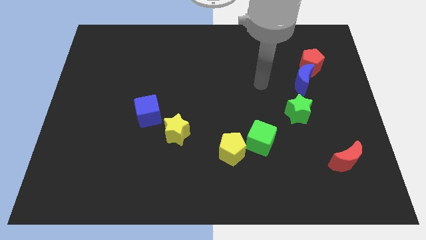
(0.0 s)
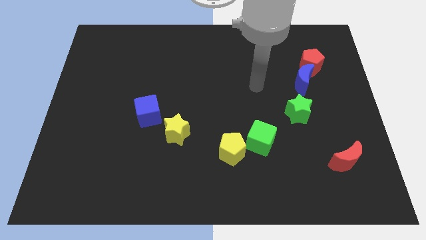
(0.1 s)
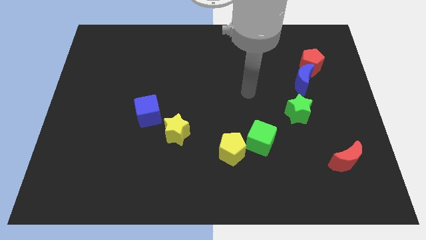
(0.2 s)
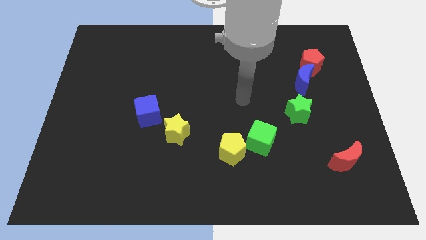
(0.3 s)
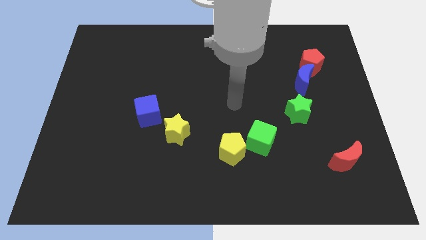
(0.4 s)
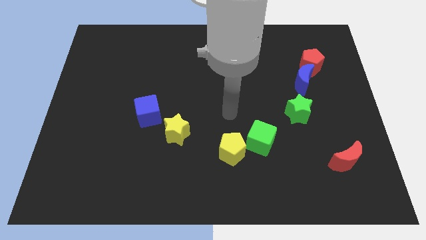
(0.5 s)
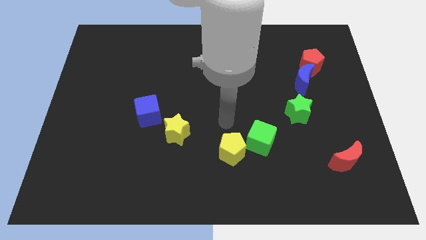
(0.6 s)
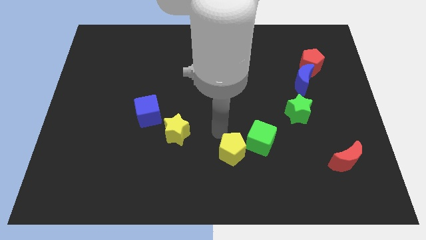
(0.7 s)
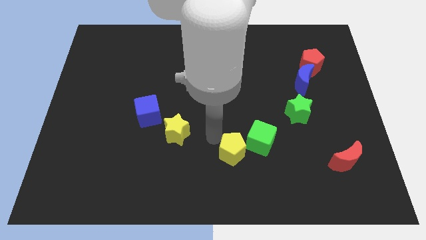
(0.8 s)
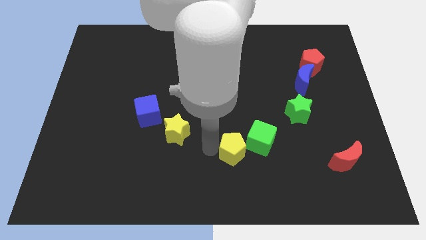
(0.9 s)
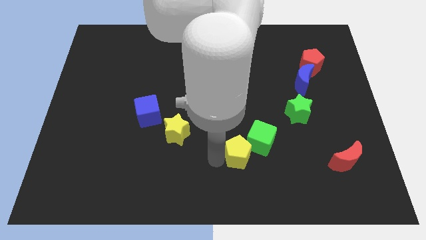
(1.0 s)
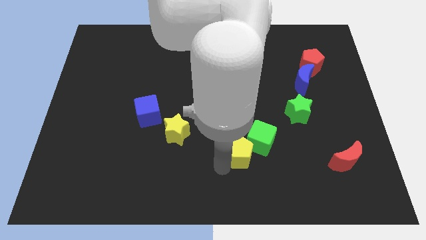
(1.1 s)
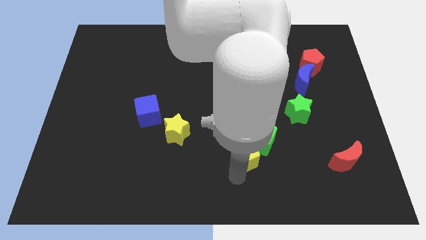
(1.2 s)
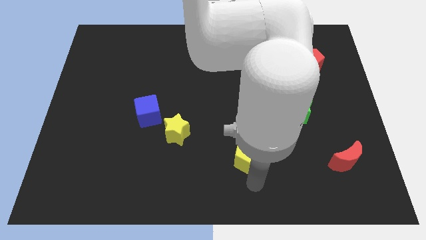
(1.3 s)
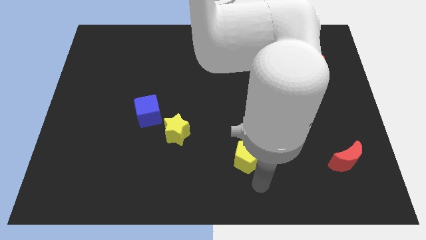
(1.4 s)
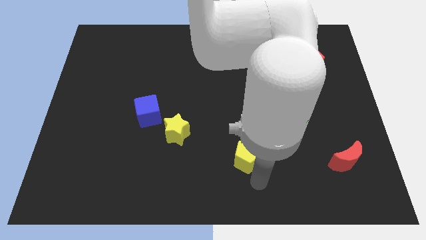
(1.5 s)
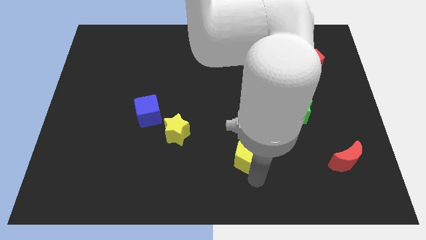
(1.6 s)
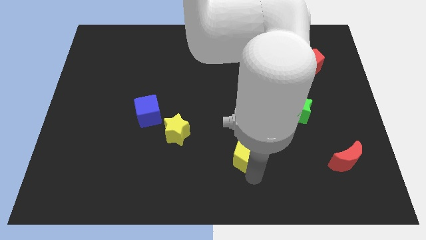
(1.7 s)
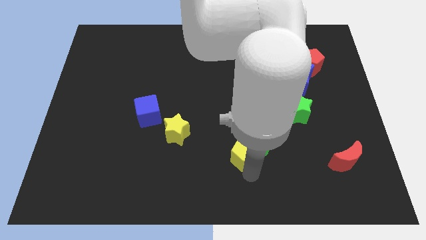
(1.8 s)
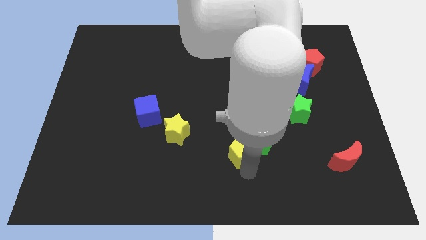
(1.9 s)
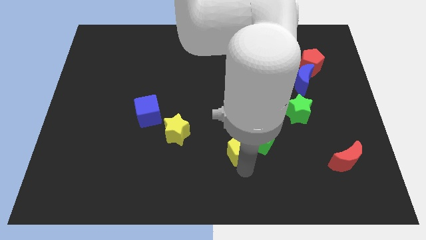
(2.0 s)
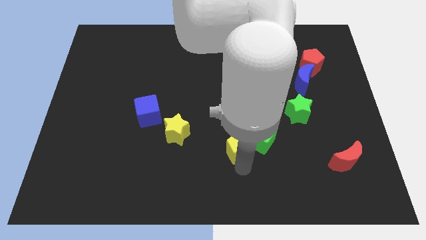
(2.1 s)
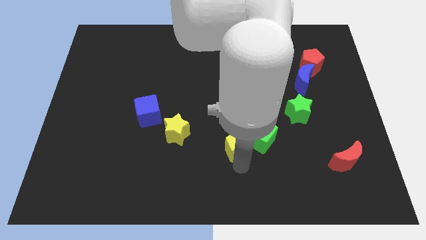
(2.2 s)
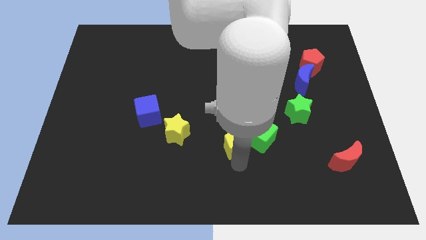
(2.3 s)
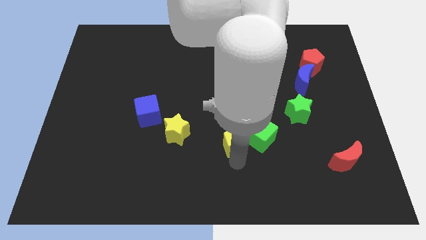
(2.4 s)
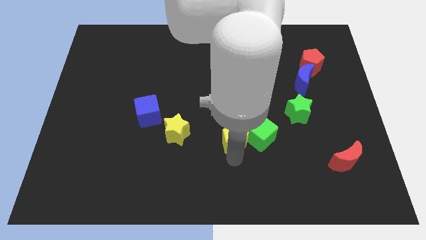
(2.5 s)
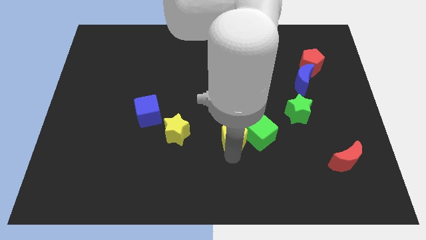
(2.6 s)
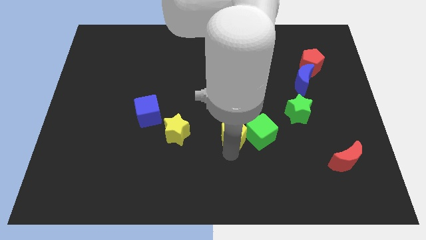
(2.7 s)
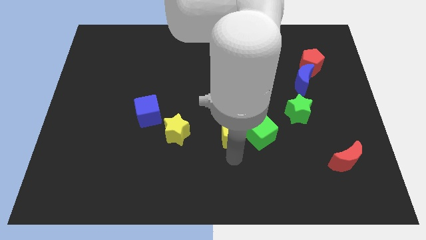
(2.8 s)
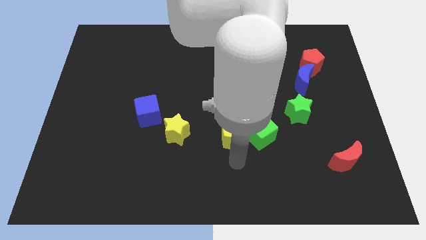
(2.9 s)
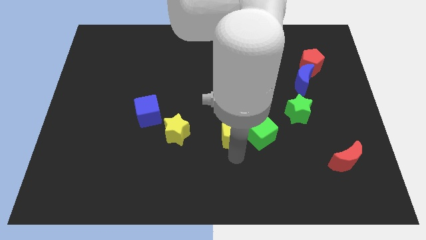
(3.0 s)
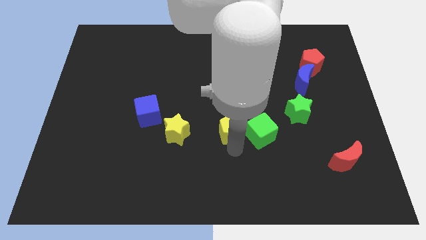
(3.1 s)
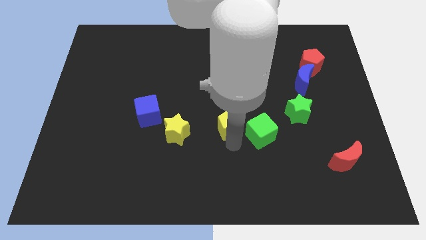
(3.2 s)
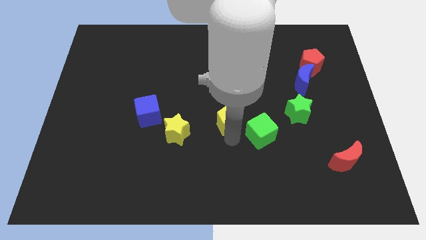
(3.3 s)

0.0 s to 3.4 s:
push the yellow pentagon a little bit upwards

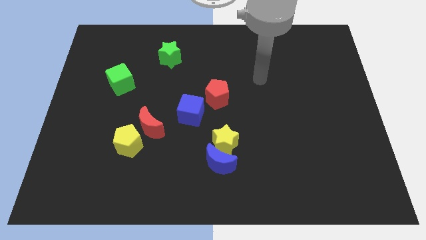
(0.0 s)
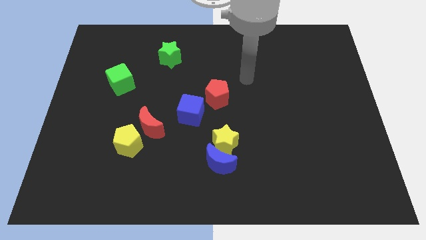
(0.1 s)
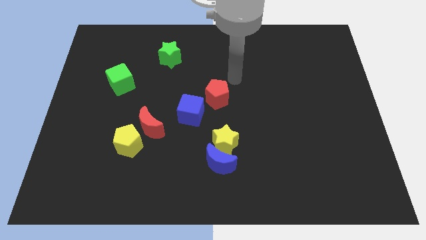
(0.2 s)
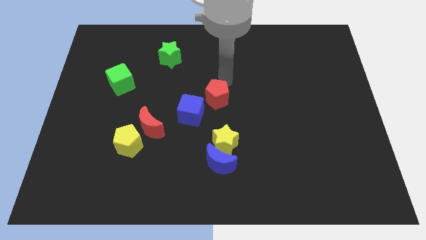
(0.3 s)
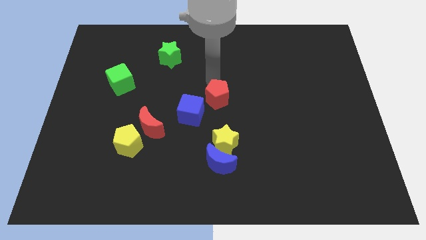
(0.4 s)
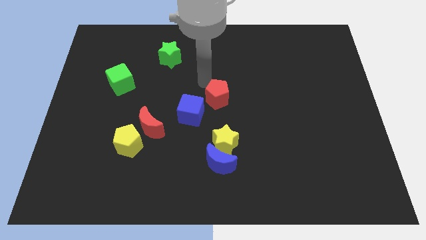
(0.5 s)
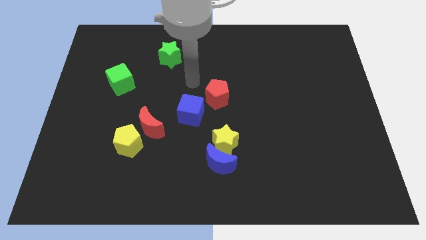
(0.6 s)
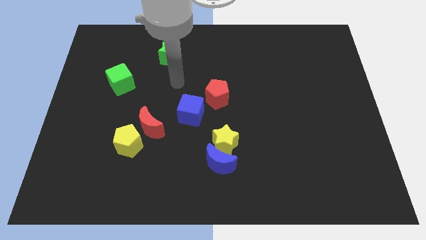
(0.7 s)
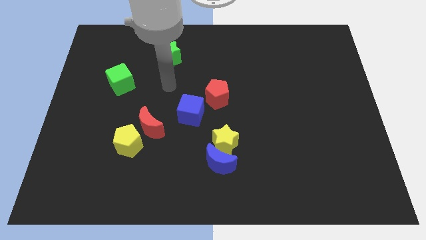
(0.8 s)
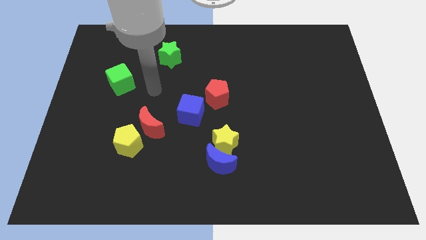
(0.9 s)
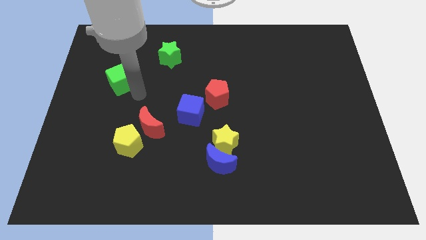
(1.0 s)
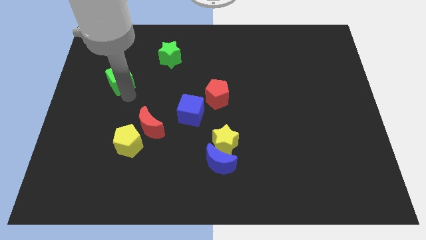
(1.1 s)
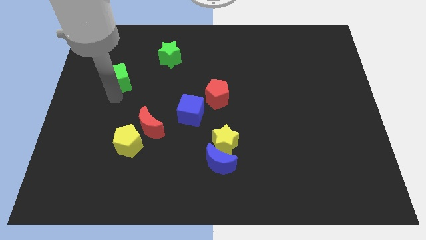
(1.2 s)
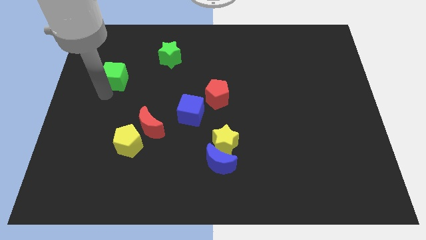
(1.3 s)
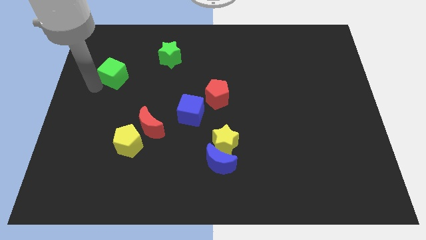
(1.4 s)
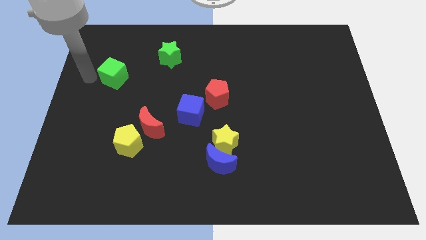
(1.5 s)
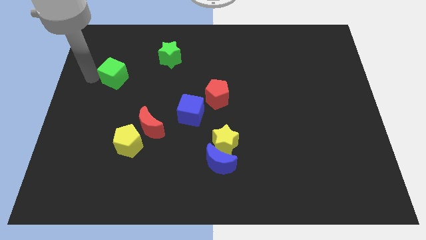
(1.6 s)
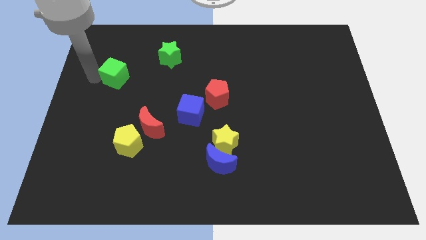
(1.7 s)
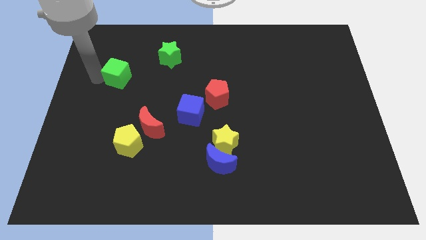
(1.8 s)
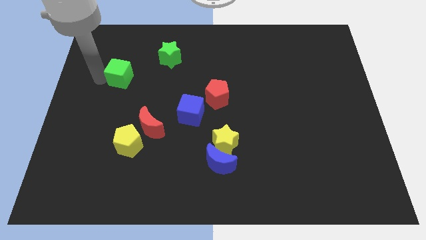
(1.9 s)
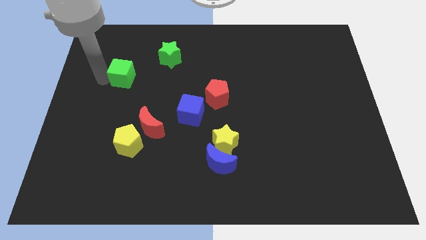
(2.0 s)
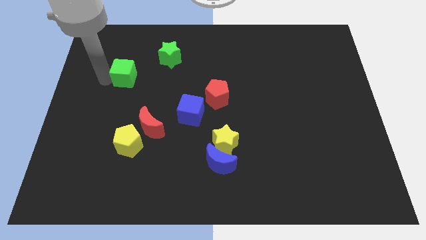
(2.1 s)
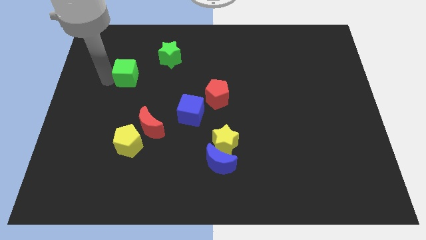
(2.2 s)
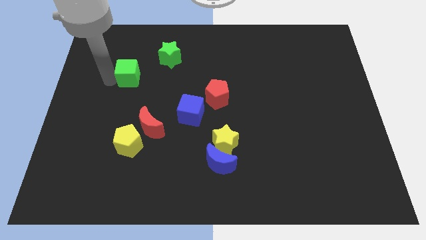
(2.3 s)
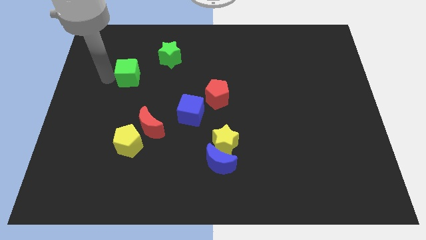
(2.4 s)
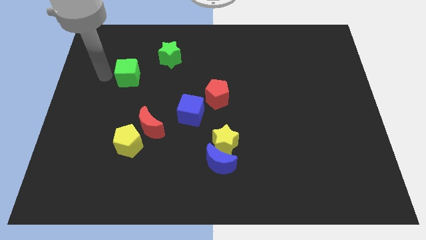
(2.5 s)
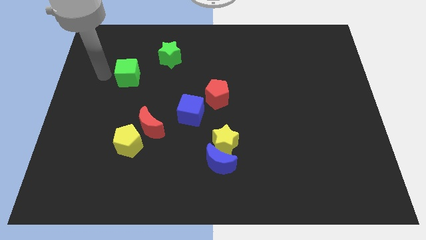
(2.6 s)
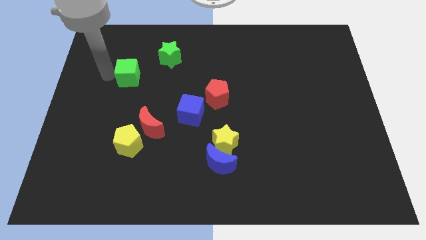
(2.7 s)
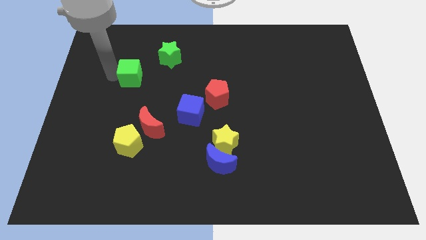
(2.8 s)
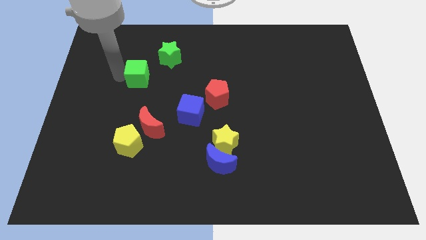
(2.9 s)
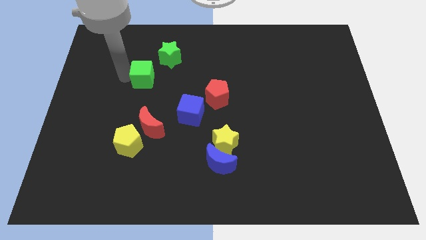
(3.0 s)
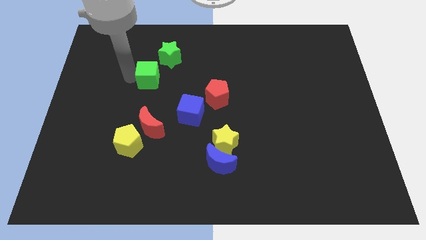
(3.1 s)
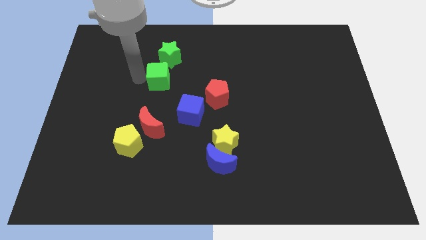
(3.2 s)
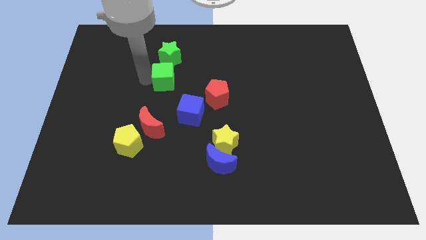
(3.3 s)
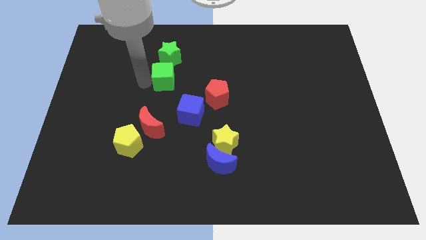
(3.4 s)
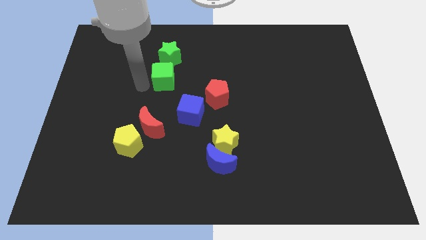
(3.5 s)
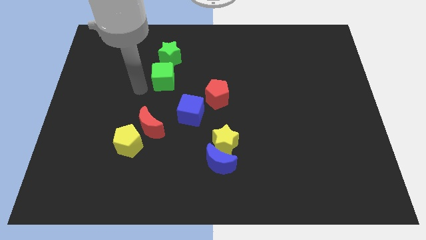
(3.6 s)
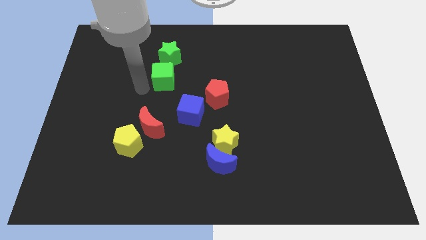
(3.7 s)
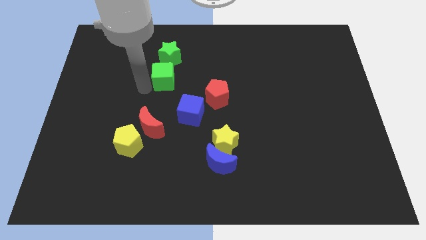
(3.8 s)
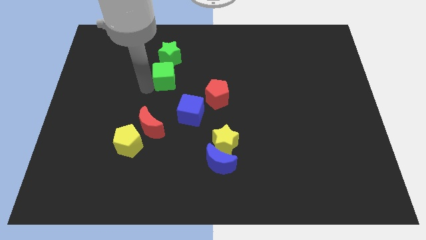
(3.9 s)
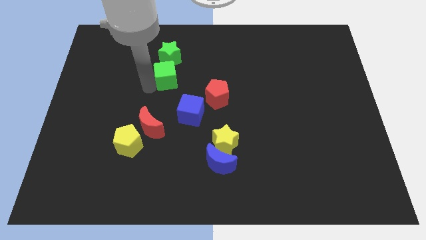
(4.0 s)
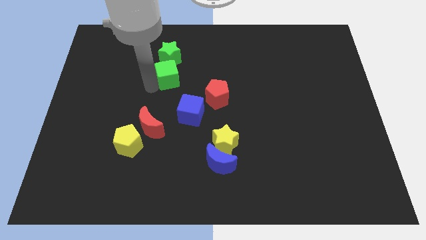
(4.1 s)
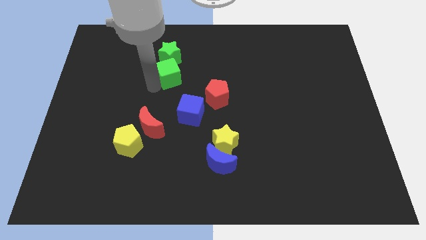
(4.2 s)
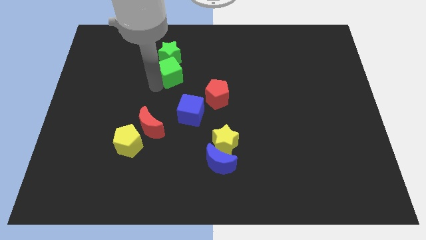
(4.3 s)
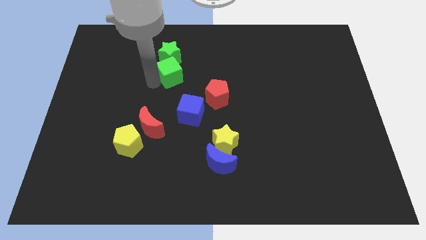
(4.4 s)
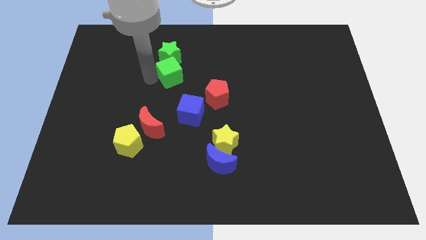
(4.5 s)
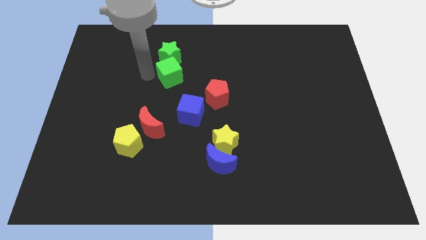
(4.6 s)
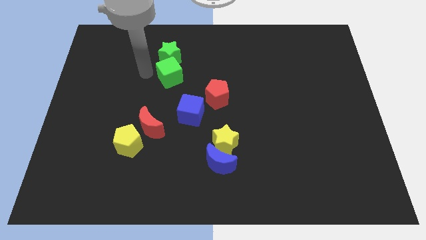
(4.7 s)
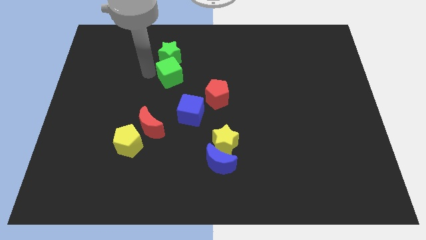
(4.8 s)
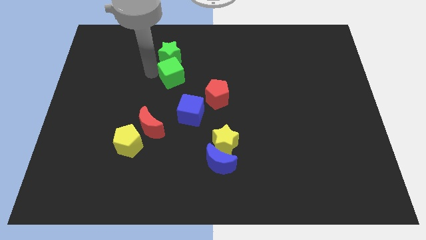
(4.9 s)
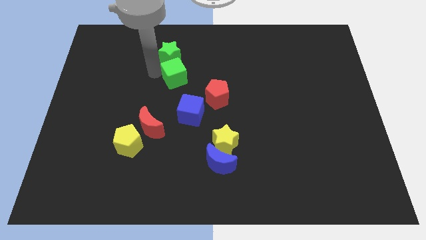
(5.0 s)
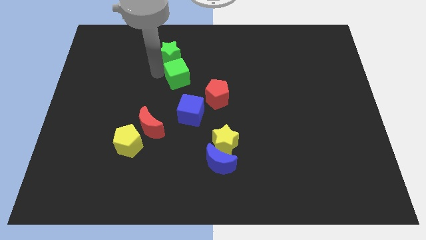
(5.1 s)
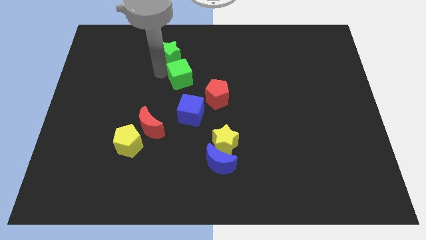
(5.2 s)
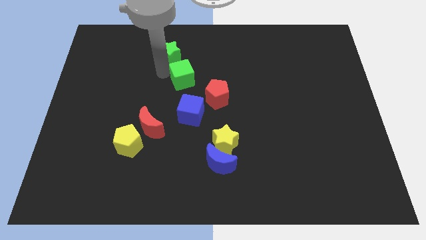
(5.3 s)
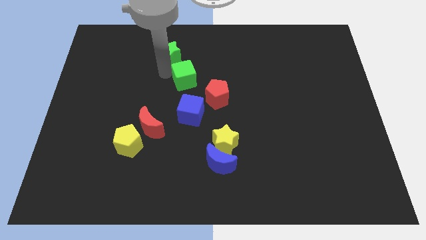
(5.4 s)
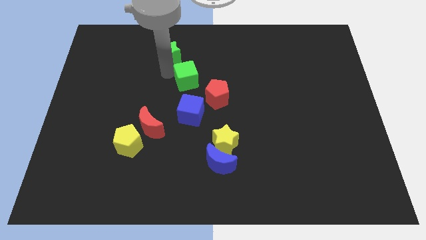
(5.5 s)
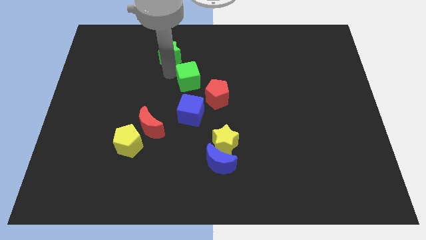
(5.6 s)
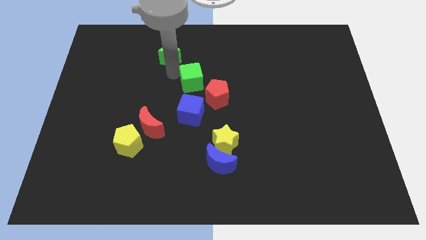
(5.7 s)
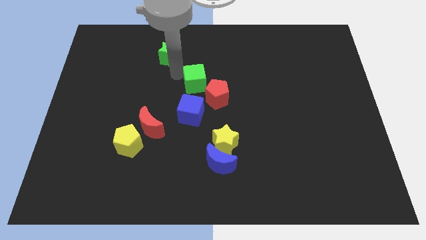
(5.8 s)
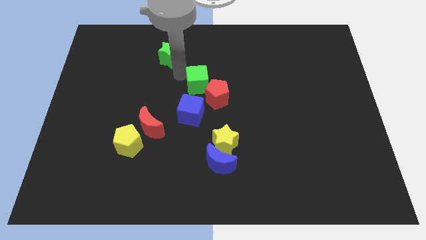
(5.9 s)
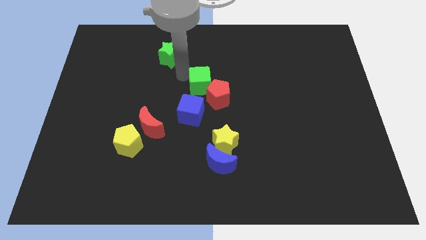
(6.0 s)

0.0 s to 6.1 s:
push the green cube to the right
